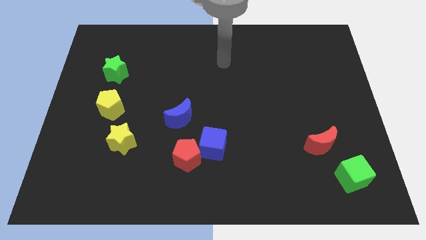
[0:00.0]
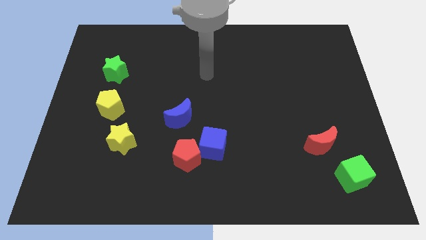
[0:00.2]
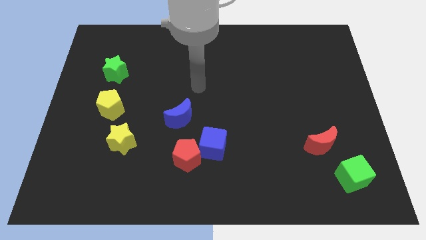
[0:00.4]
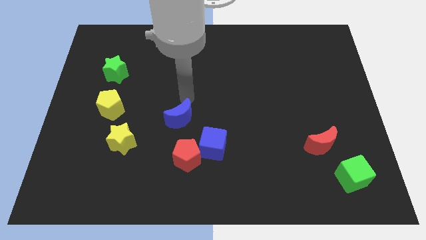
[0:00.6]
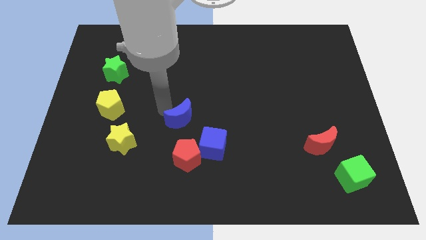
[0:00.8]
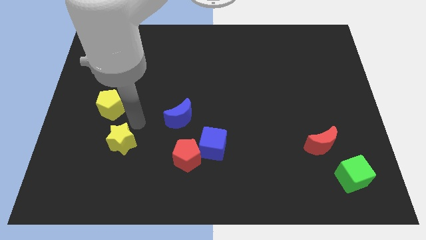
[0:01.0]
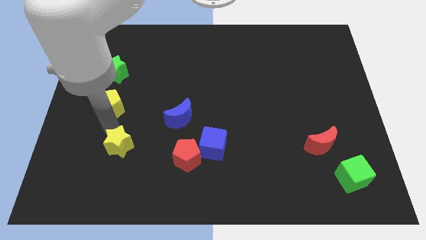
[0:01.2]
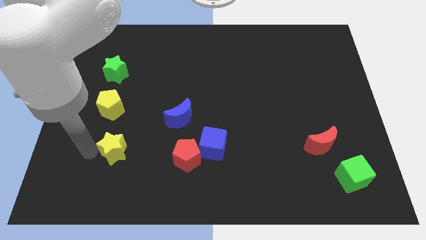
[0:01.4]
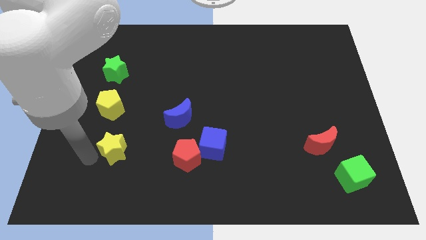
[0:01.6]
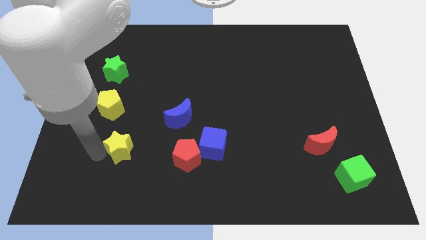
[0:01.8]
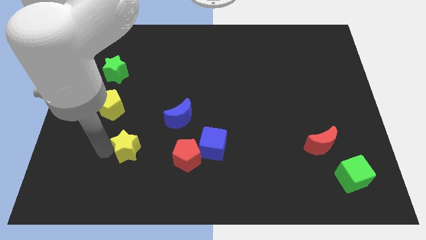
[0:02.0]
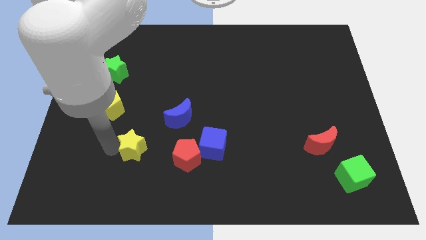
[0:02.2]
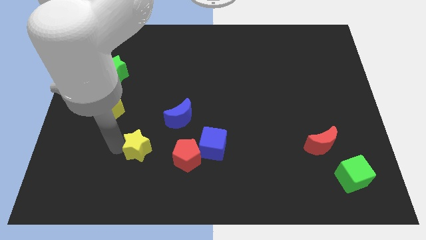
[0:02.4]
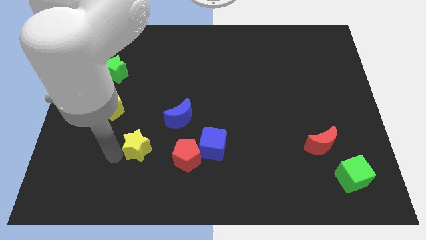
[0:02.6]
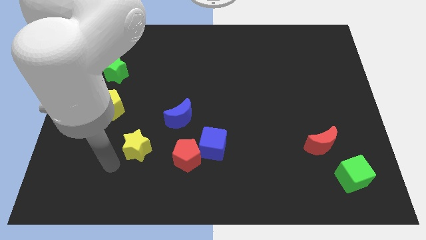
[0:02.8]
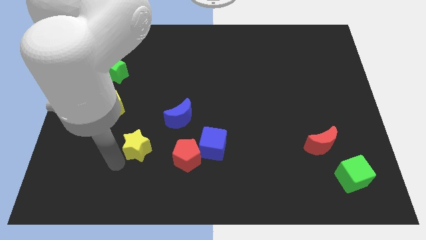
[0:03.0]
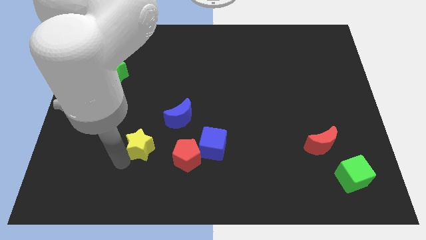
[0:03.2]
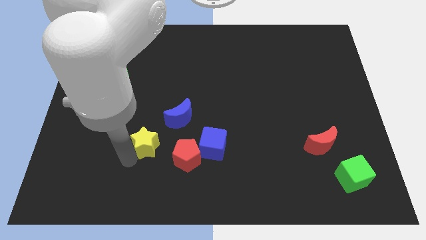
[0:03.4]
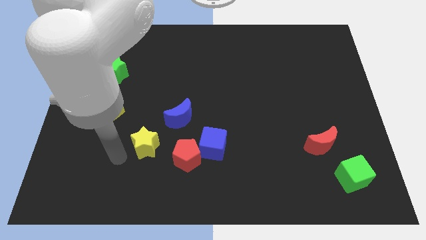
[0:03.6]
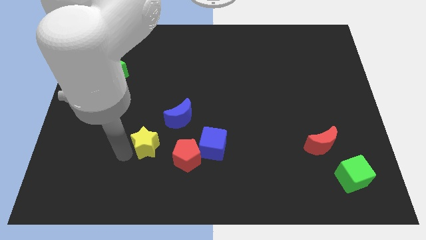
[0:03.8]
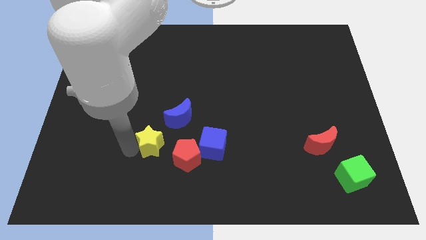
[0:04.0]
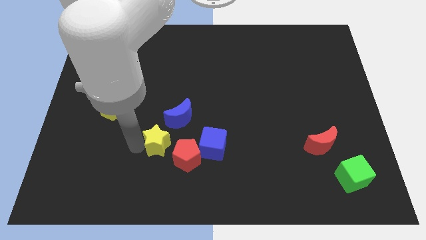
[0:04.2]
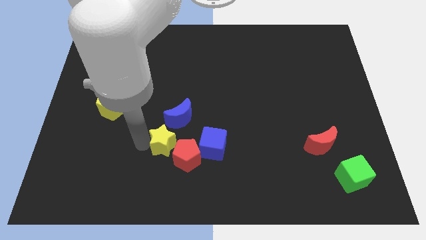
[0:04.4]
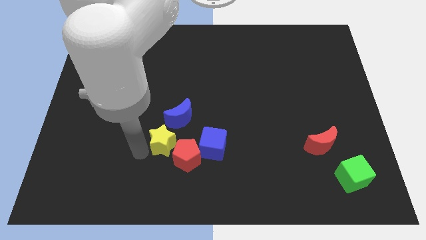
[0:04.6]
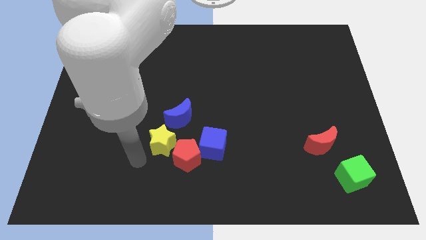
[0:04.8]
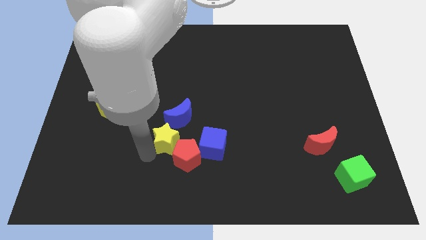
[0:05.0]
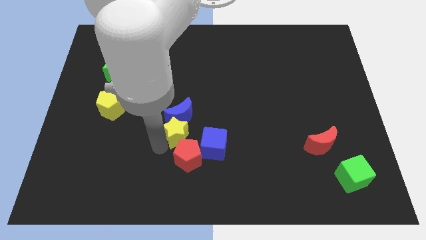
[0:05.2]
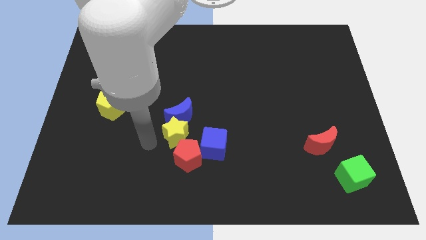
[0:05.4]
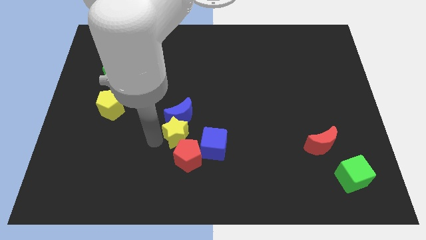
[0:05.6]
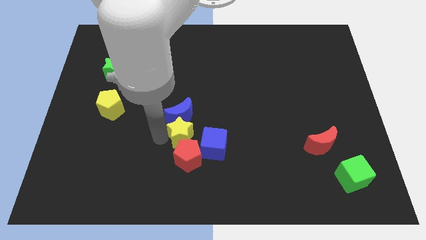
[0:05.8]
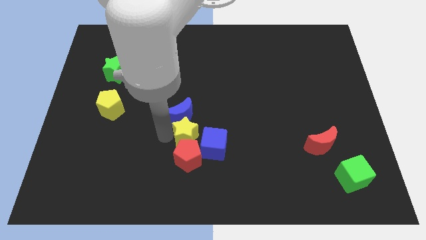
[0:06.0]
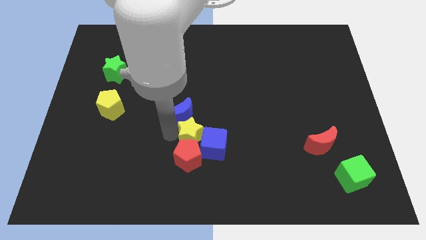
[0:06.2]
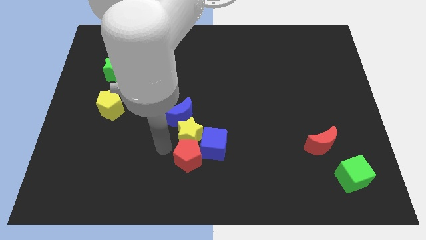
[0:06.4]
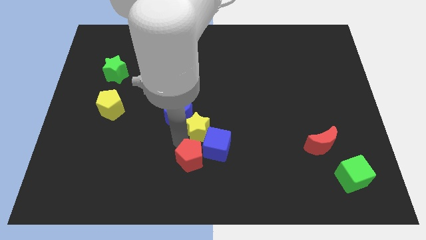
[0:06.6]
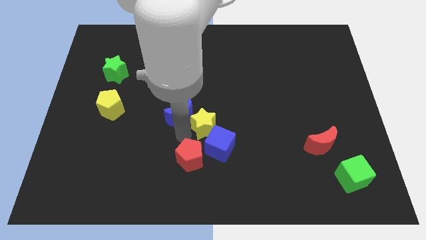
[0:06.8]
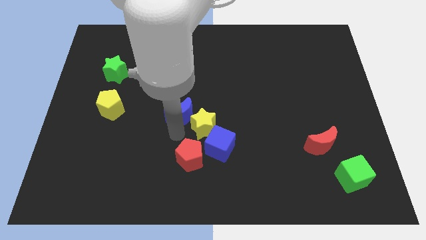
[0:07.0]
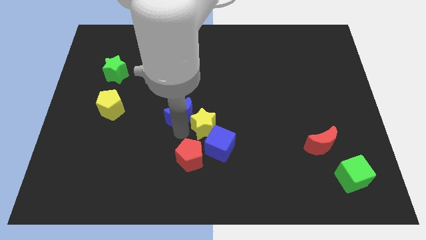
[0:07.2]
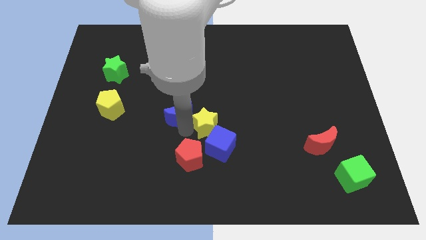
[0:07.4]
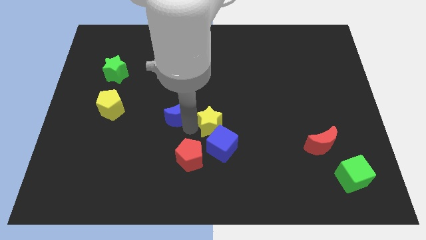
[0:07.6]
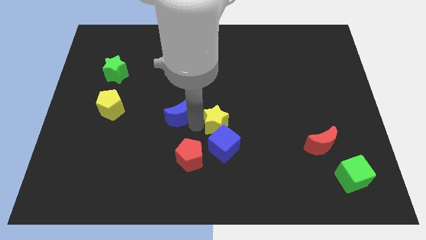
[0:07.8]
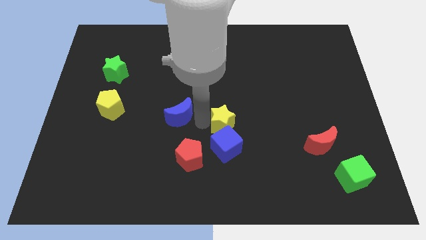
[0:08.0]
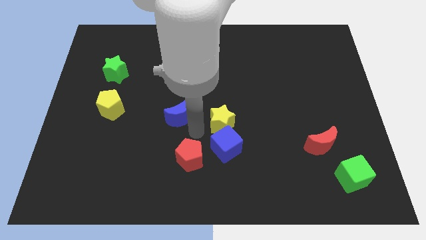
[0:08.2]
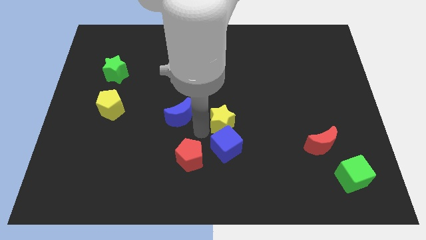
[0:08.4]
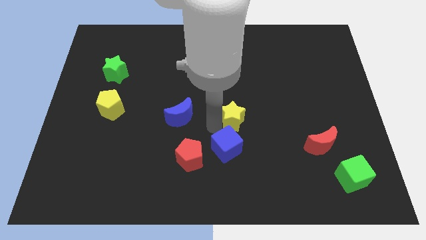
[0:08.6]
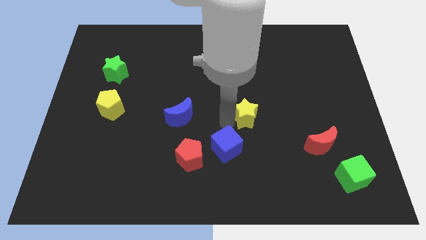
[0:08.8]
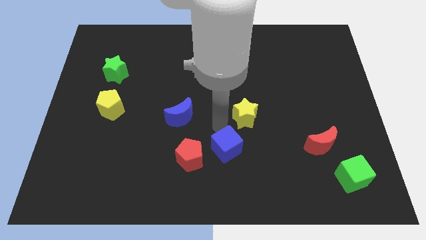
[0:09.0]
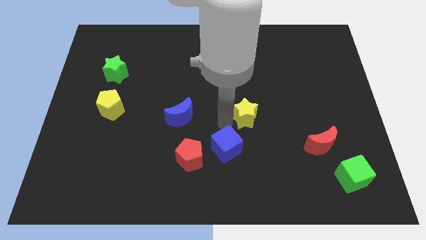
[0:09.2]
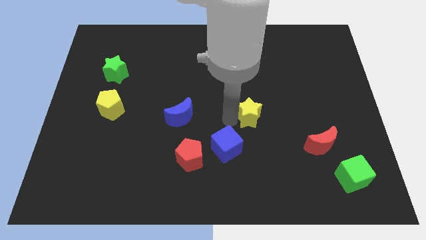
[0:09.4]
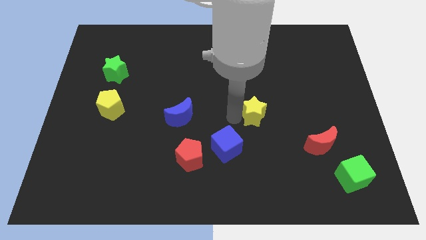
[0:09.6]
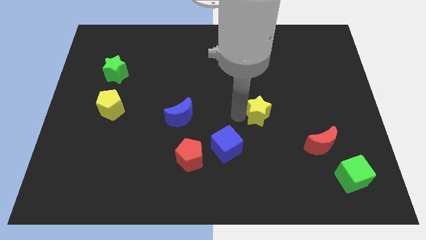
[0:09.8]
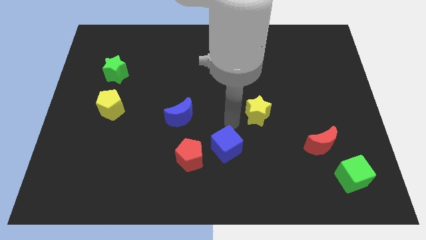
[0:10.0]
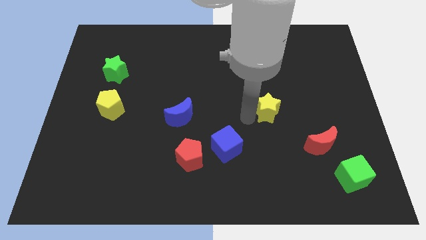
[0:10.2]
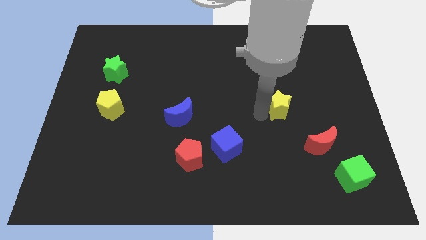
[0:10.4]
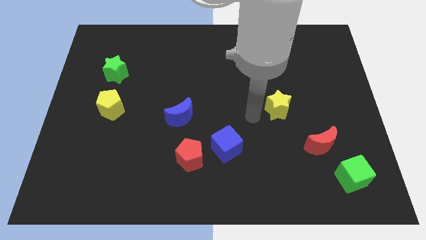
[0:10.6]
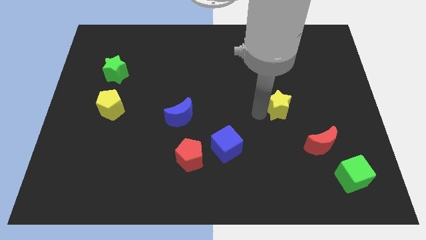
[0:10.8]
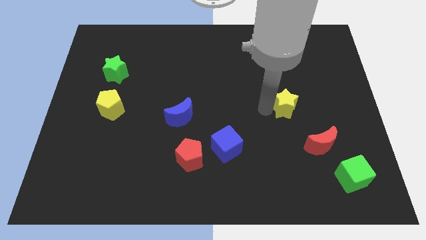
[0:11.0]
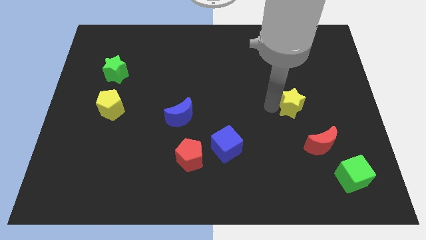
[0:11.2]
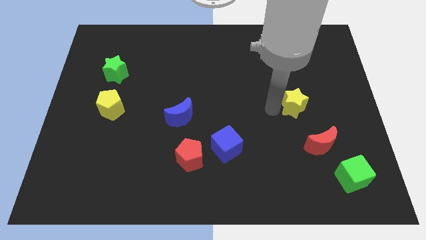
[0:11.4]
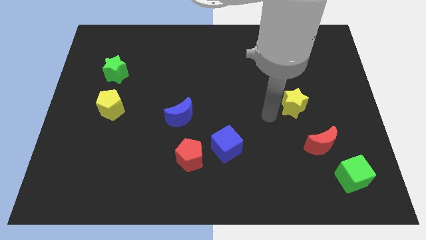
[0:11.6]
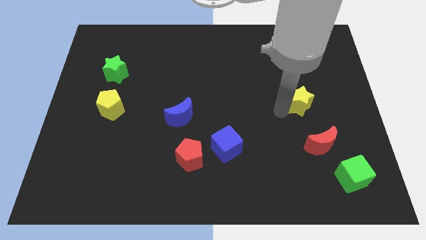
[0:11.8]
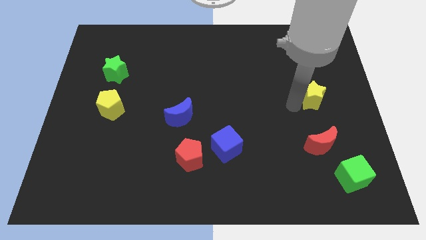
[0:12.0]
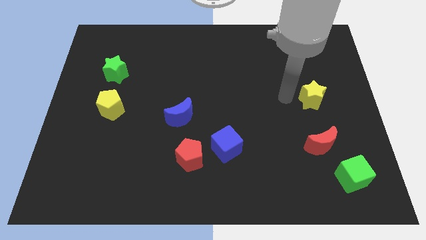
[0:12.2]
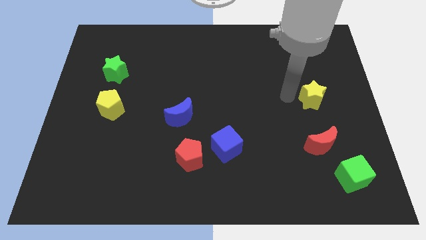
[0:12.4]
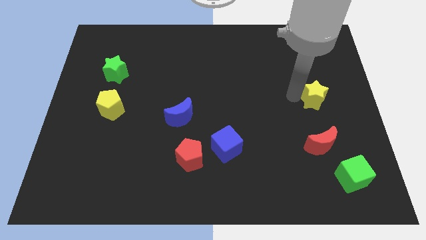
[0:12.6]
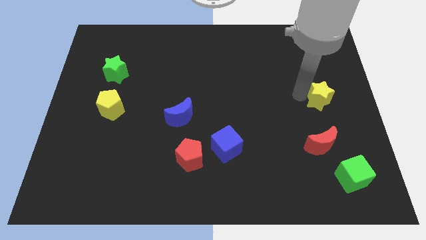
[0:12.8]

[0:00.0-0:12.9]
put the yellow star to the right side of the board

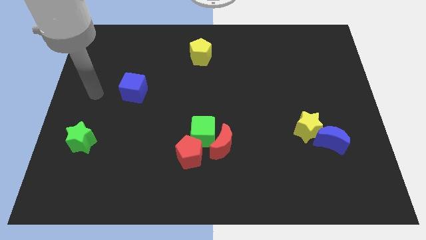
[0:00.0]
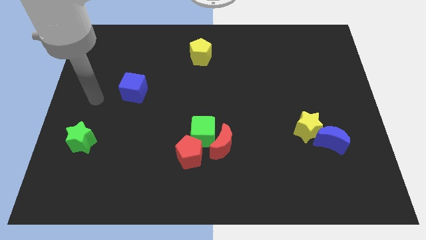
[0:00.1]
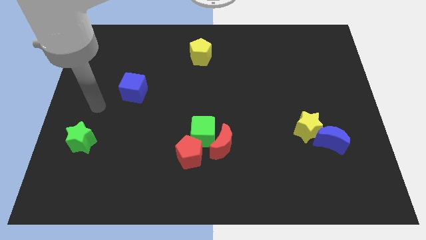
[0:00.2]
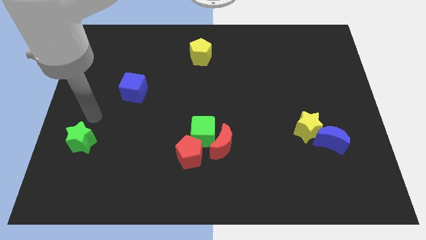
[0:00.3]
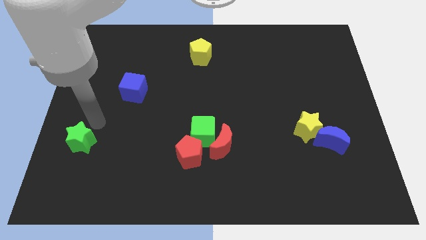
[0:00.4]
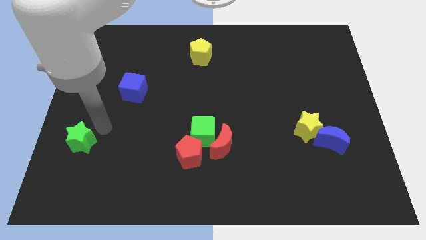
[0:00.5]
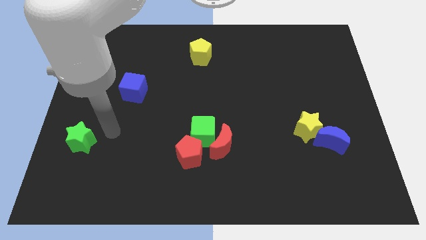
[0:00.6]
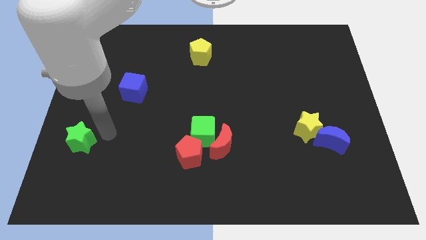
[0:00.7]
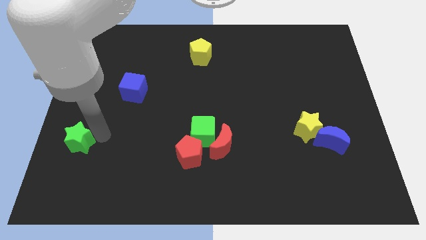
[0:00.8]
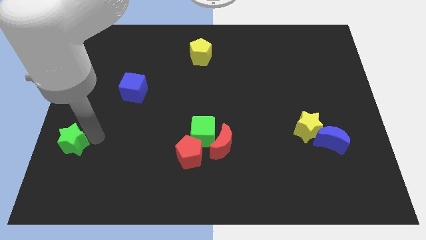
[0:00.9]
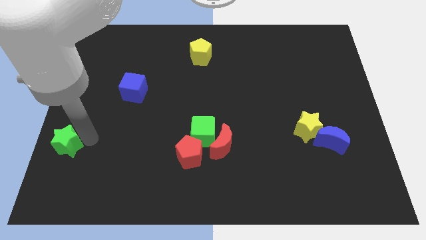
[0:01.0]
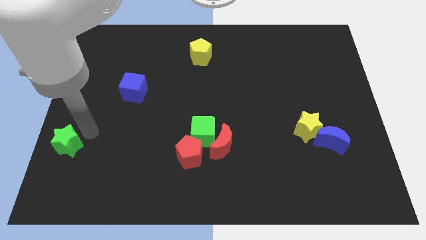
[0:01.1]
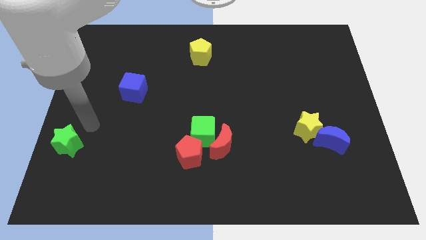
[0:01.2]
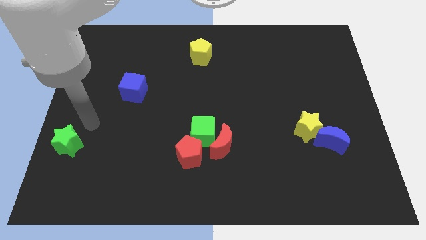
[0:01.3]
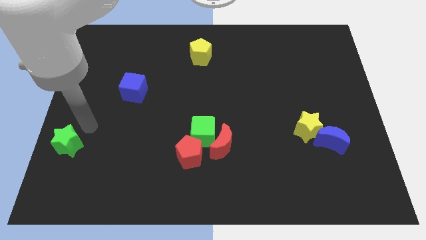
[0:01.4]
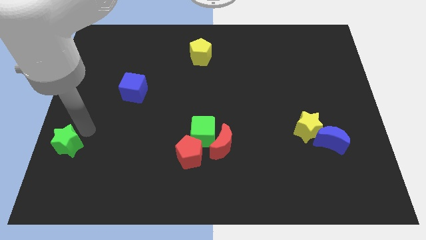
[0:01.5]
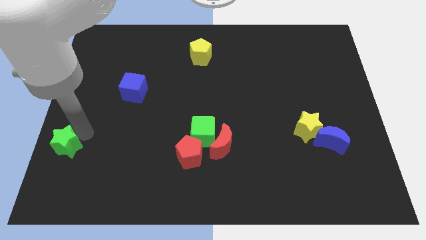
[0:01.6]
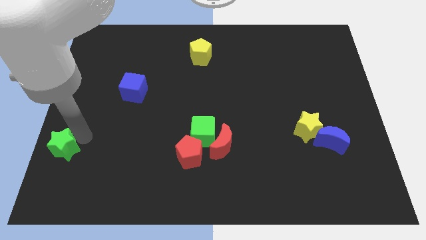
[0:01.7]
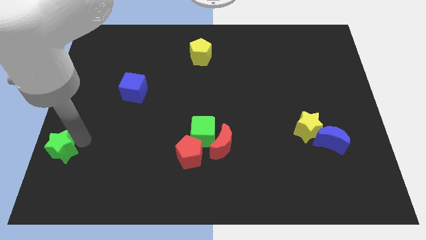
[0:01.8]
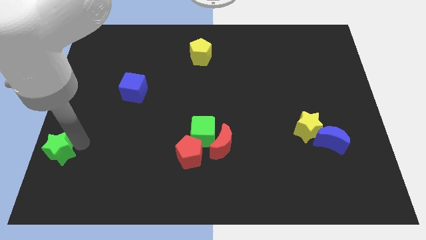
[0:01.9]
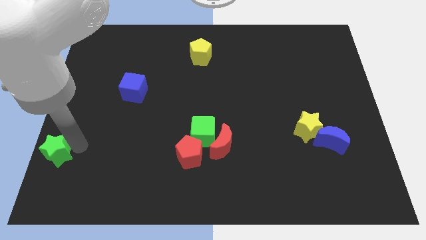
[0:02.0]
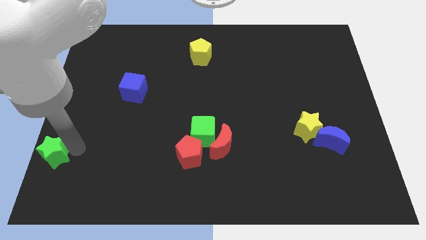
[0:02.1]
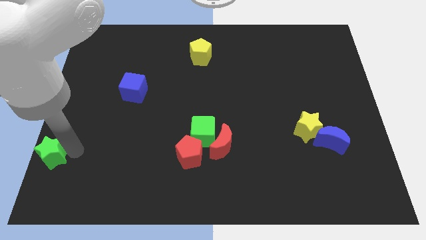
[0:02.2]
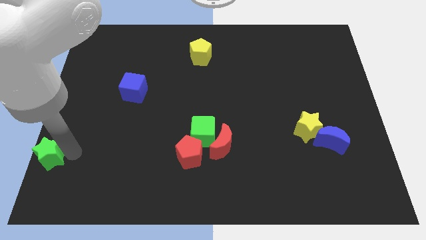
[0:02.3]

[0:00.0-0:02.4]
push the green star to the bottom left corner
